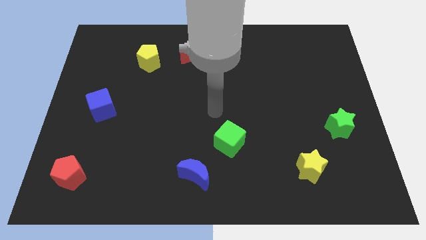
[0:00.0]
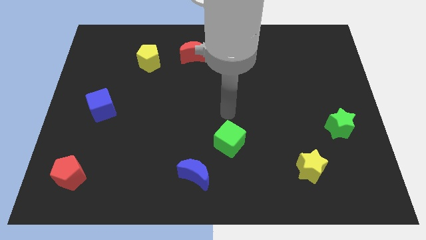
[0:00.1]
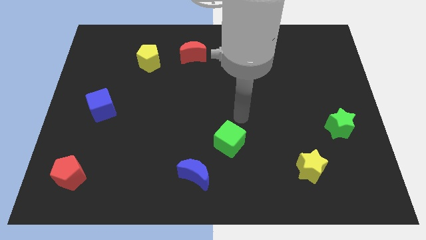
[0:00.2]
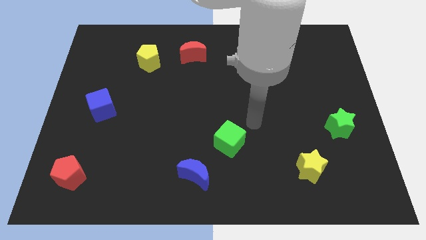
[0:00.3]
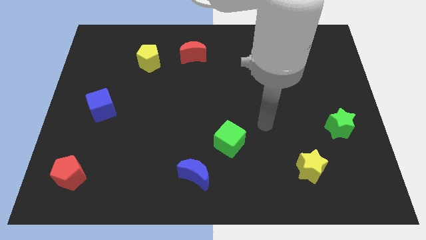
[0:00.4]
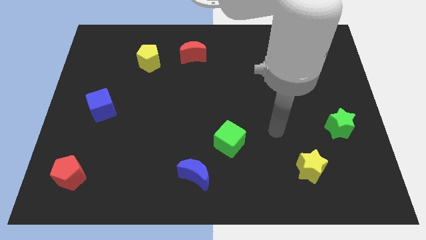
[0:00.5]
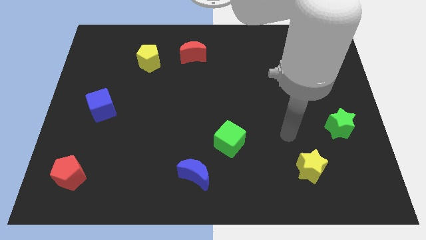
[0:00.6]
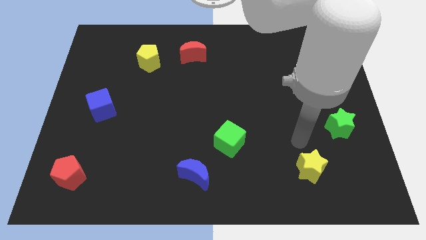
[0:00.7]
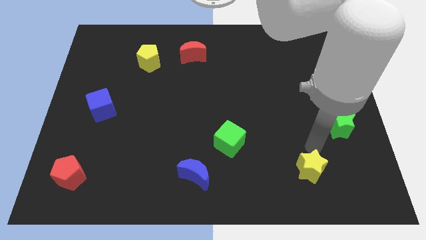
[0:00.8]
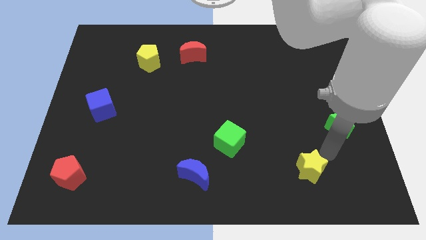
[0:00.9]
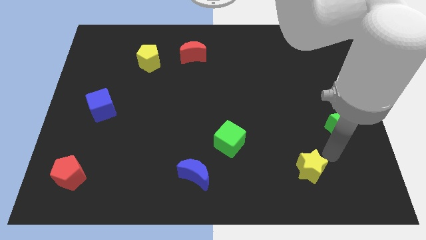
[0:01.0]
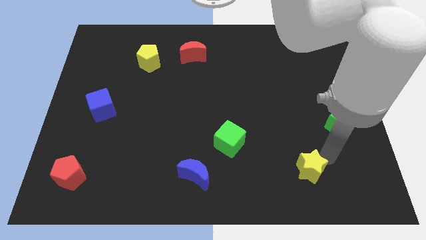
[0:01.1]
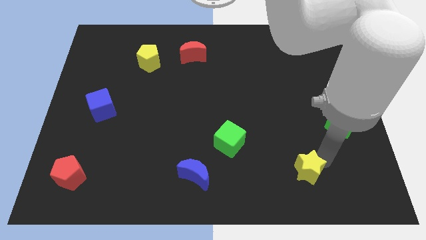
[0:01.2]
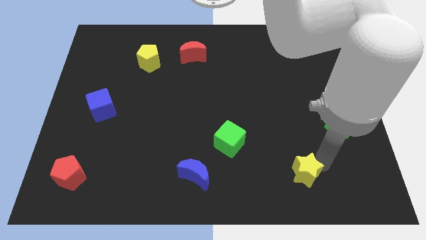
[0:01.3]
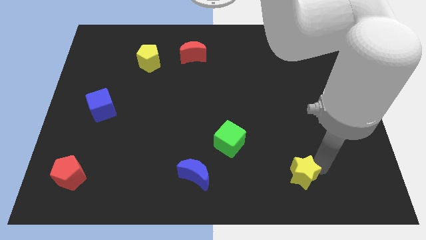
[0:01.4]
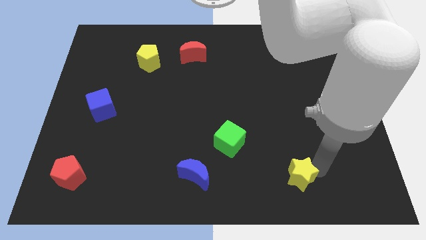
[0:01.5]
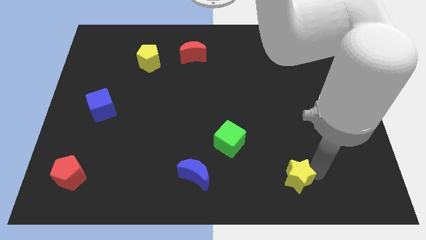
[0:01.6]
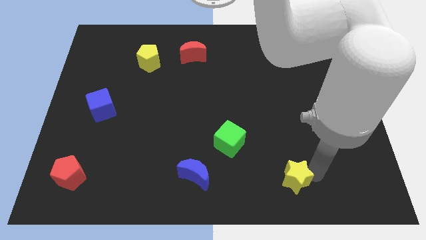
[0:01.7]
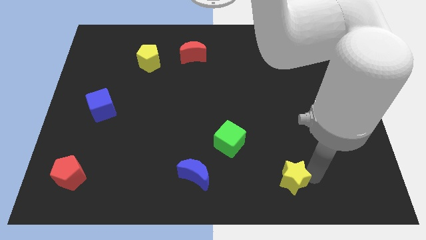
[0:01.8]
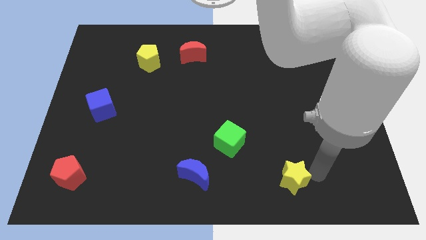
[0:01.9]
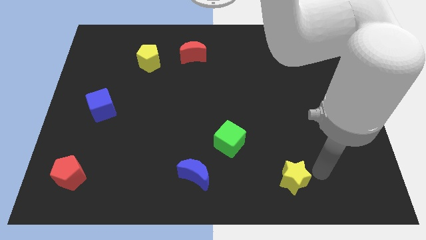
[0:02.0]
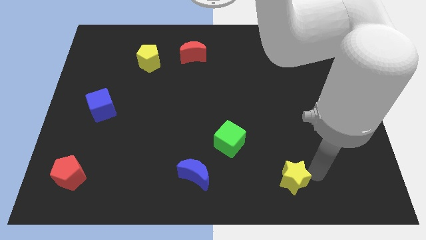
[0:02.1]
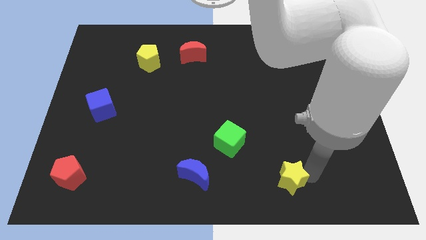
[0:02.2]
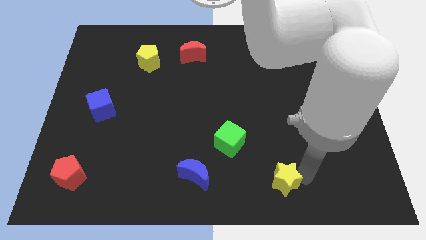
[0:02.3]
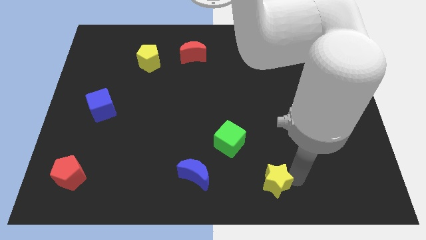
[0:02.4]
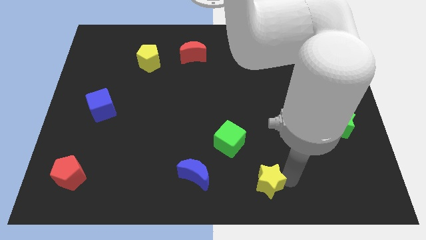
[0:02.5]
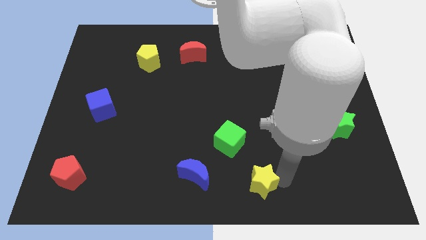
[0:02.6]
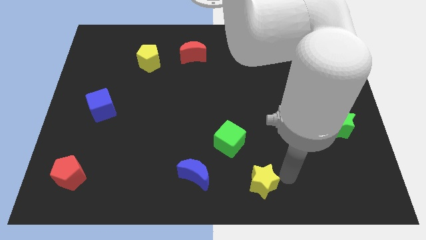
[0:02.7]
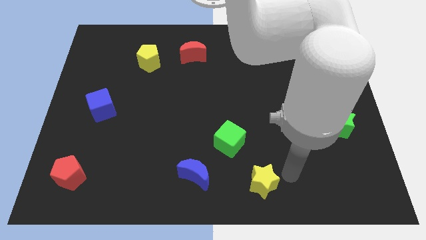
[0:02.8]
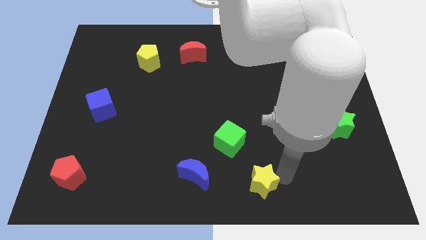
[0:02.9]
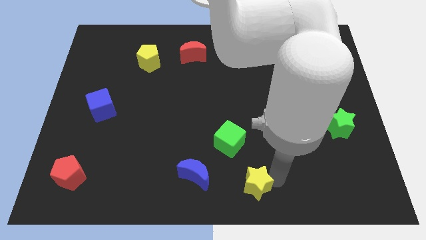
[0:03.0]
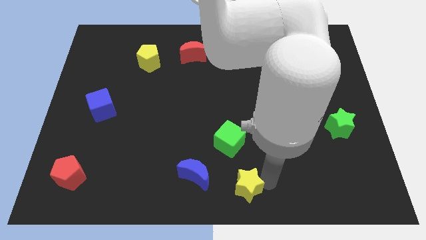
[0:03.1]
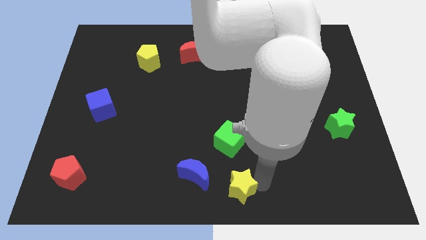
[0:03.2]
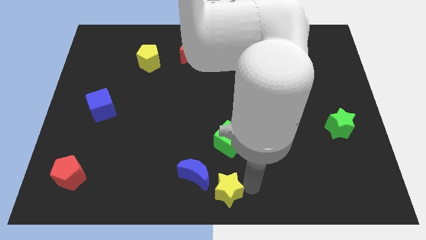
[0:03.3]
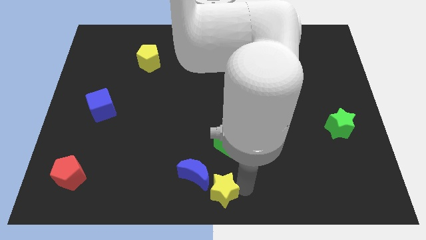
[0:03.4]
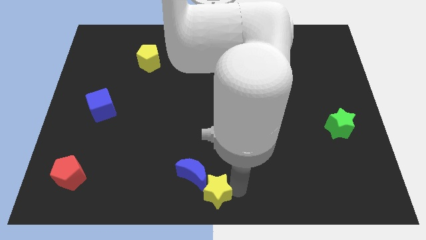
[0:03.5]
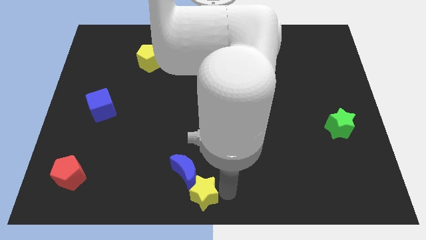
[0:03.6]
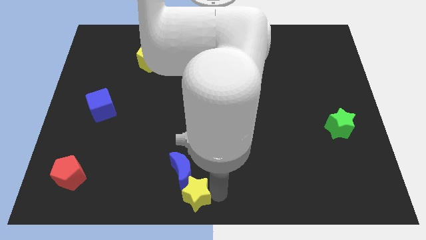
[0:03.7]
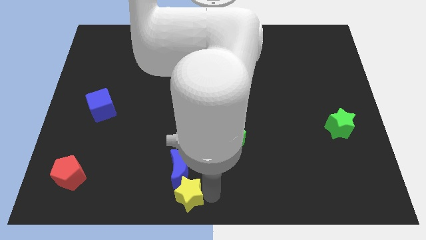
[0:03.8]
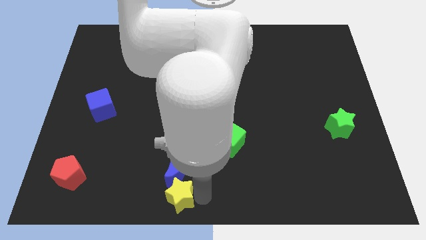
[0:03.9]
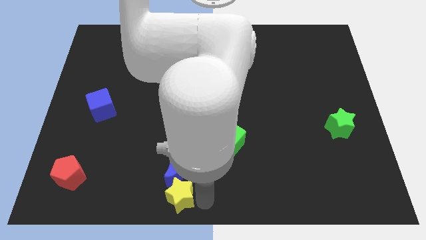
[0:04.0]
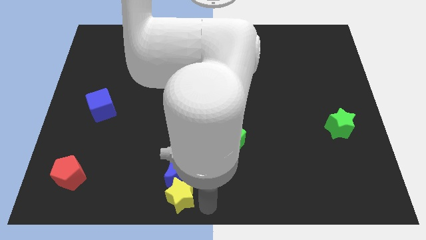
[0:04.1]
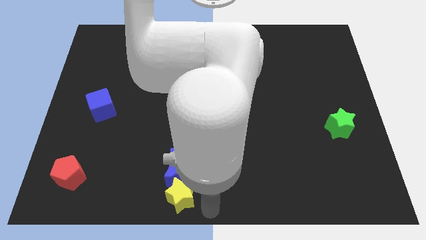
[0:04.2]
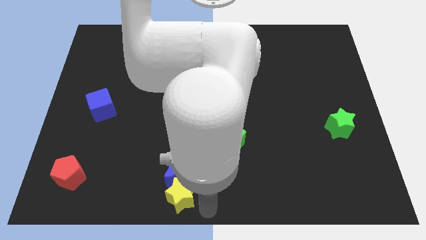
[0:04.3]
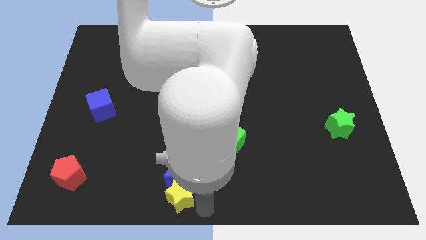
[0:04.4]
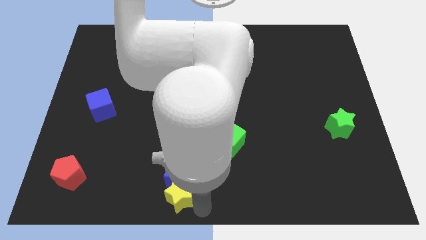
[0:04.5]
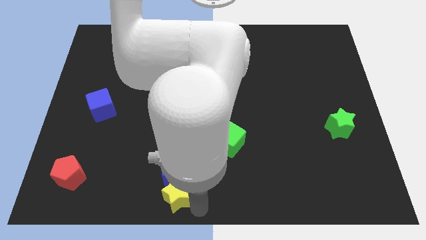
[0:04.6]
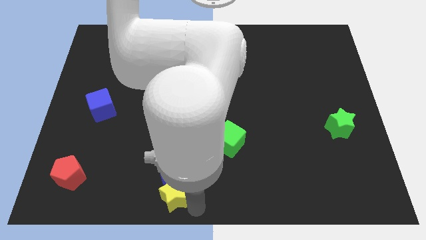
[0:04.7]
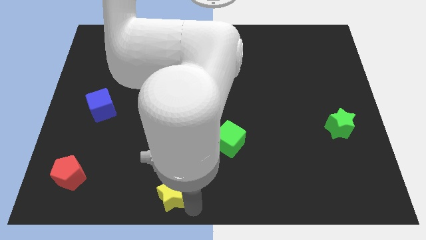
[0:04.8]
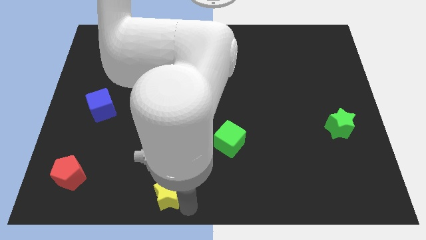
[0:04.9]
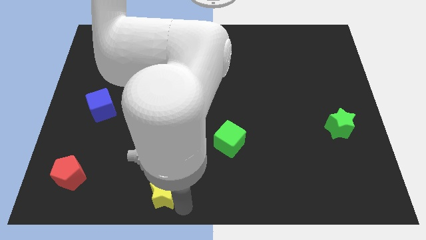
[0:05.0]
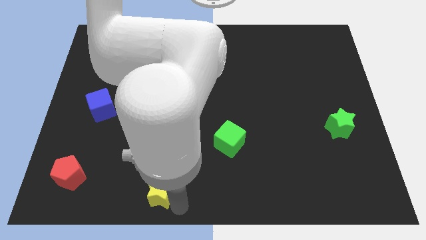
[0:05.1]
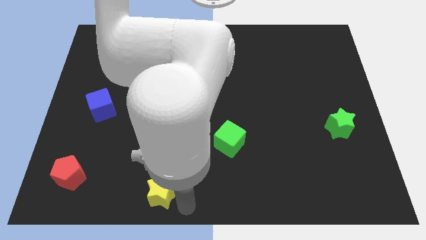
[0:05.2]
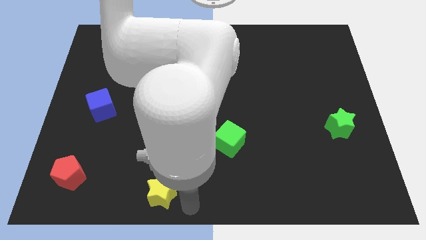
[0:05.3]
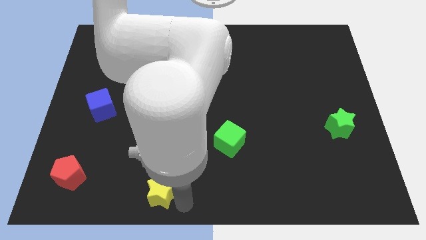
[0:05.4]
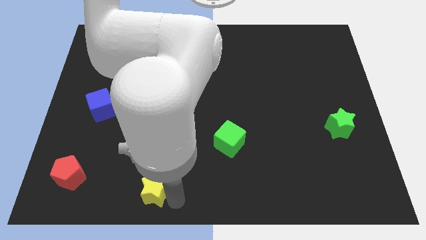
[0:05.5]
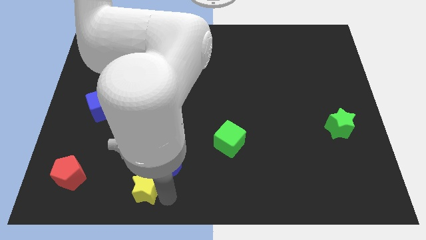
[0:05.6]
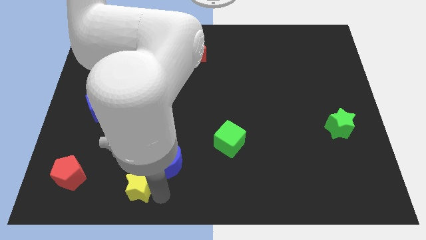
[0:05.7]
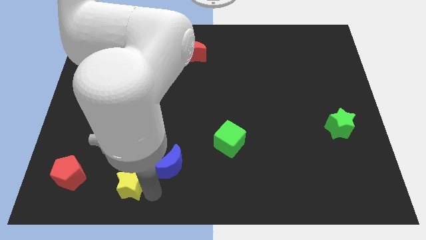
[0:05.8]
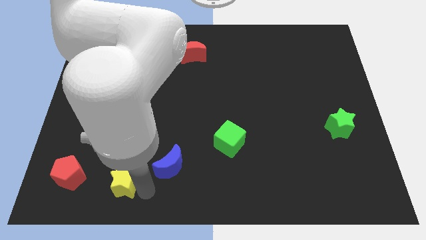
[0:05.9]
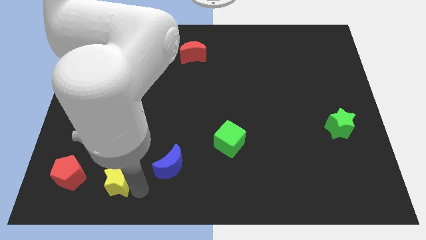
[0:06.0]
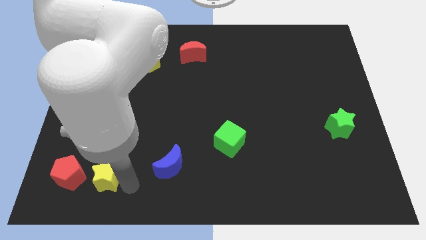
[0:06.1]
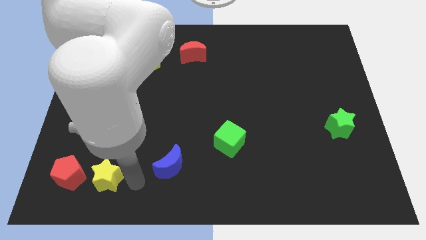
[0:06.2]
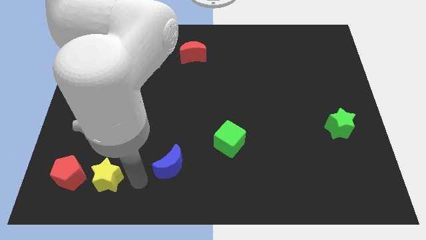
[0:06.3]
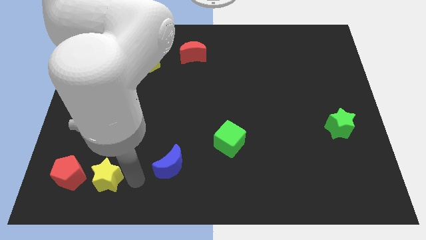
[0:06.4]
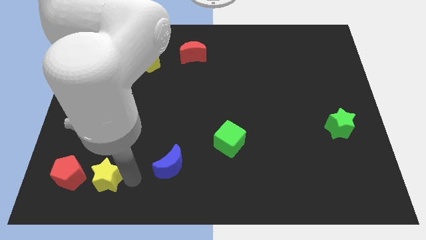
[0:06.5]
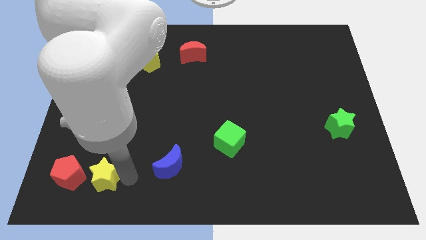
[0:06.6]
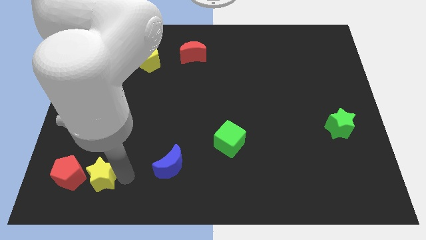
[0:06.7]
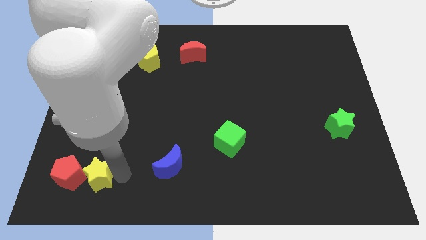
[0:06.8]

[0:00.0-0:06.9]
slide the yellow star towards the red pentagon

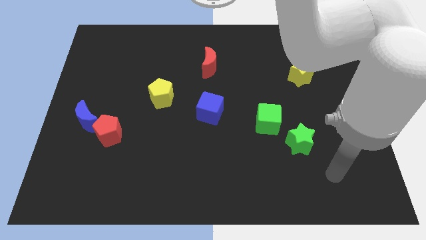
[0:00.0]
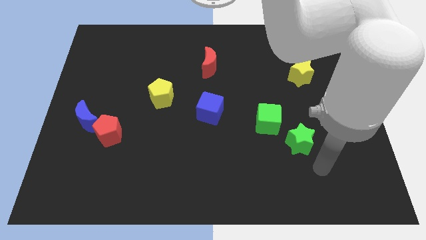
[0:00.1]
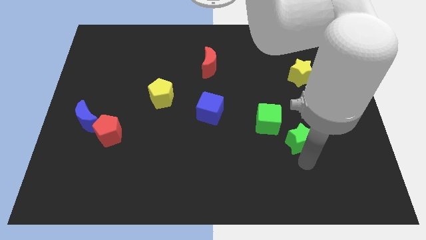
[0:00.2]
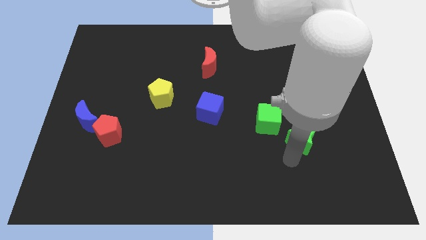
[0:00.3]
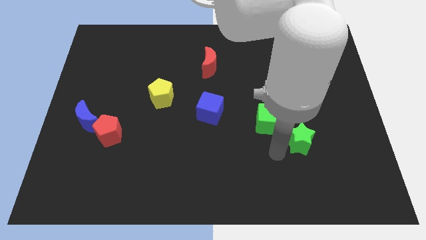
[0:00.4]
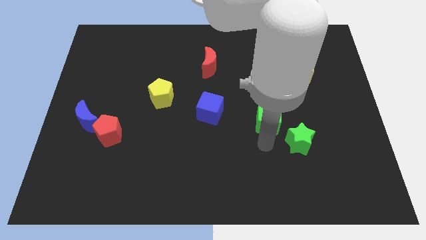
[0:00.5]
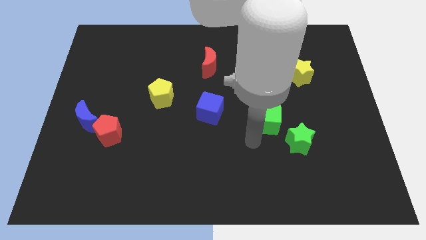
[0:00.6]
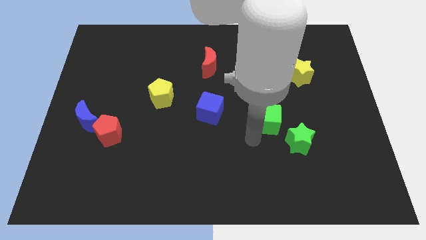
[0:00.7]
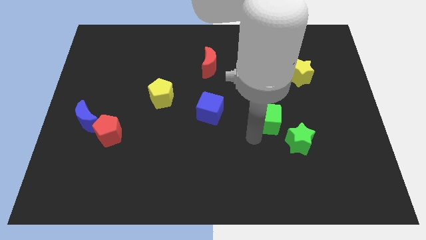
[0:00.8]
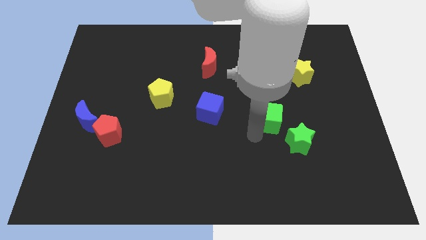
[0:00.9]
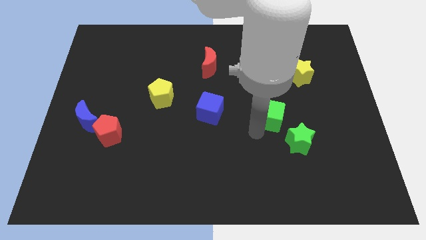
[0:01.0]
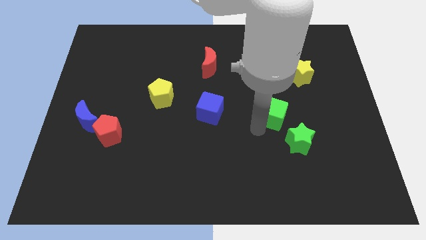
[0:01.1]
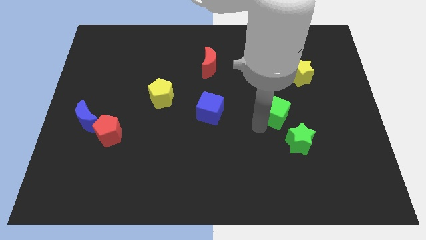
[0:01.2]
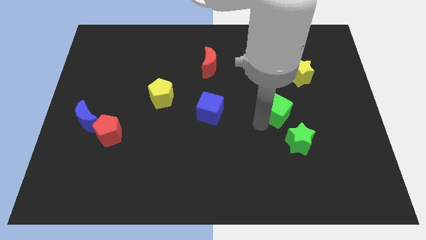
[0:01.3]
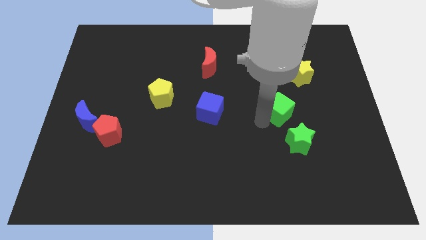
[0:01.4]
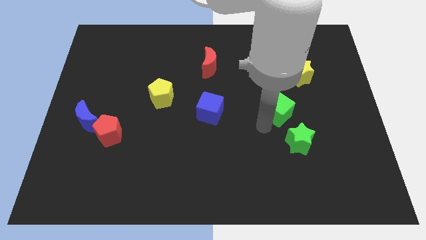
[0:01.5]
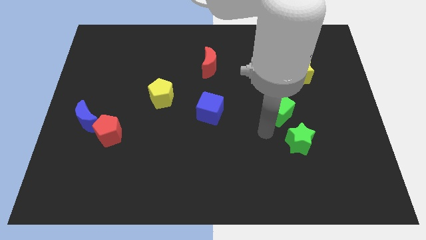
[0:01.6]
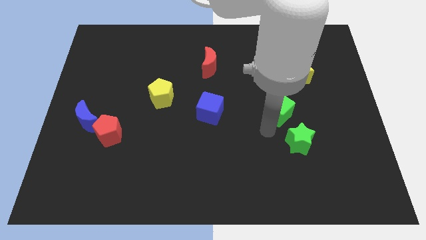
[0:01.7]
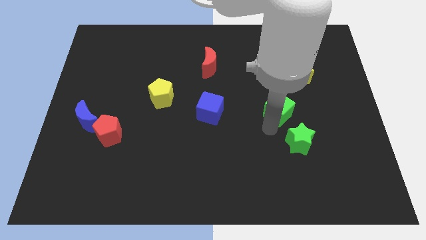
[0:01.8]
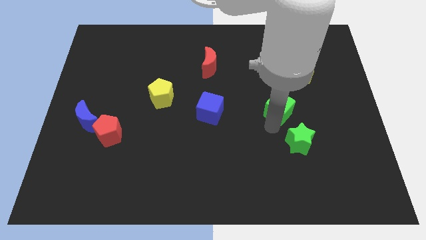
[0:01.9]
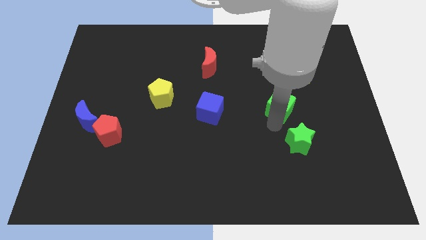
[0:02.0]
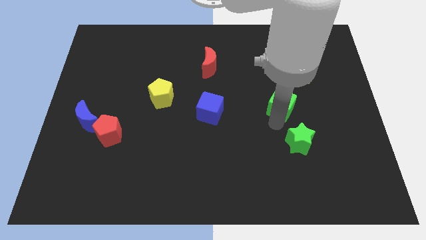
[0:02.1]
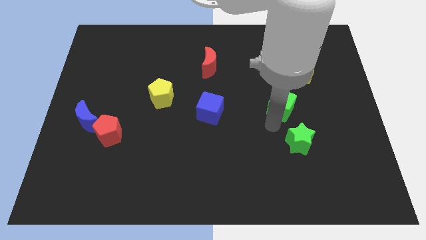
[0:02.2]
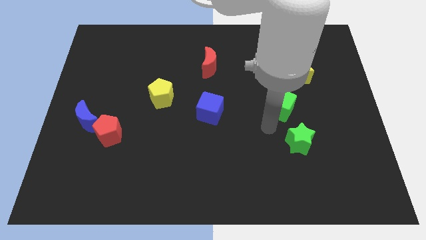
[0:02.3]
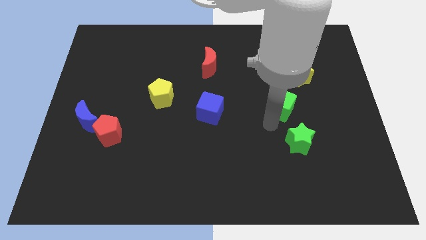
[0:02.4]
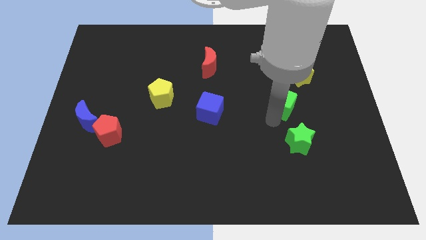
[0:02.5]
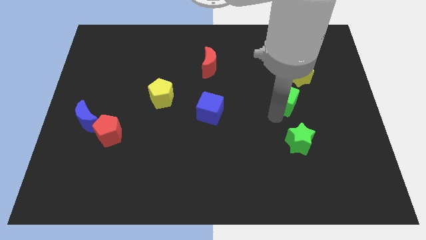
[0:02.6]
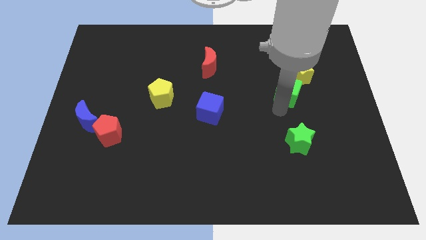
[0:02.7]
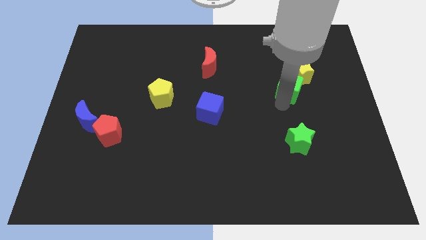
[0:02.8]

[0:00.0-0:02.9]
put the green cube next to the yellow star
